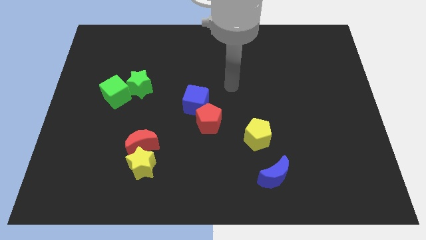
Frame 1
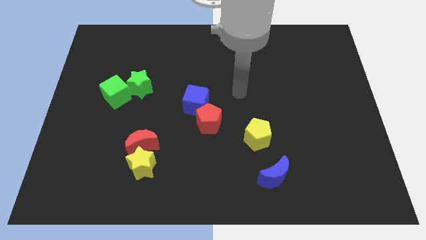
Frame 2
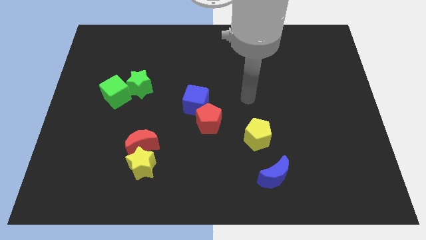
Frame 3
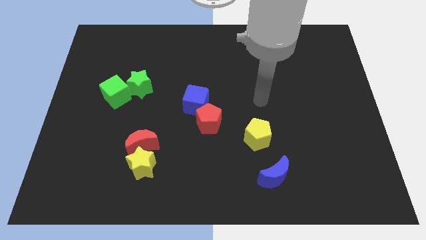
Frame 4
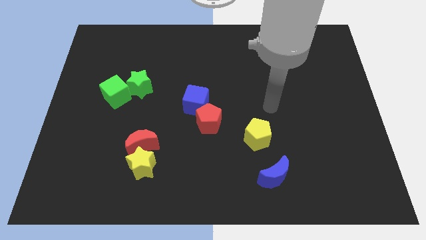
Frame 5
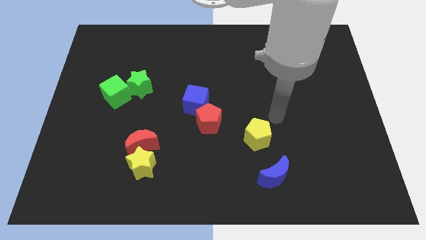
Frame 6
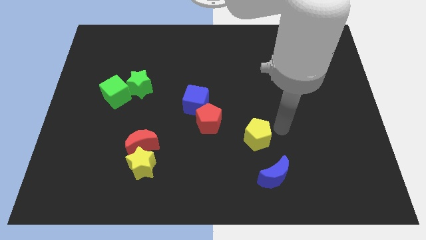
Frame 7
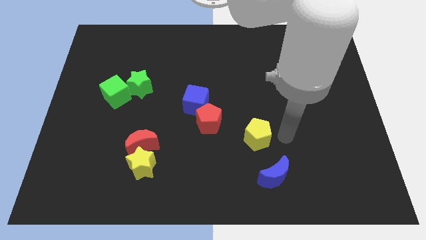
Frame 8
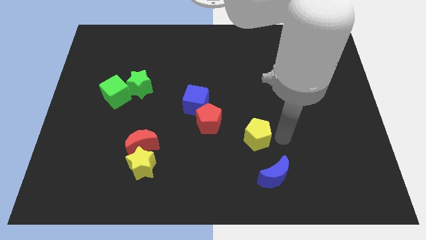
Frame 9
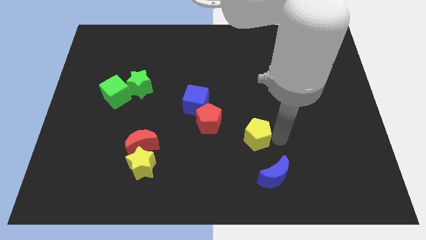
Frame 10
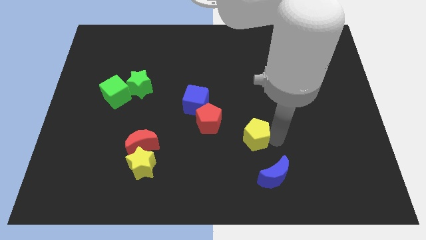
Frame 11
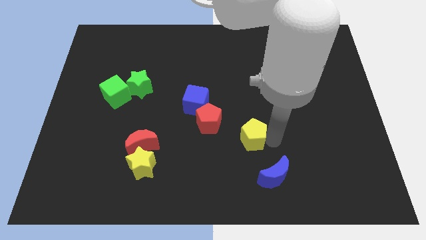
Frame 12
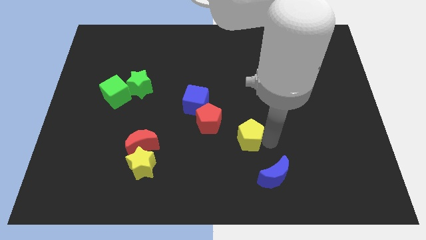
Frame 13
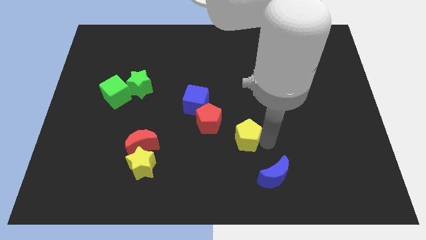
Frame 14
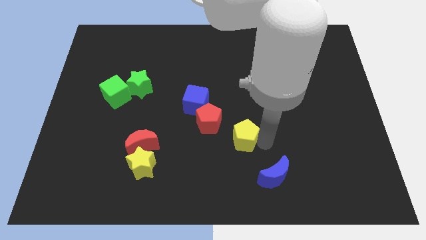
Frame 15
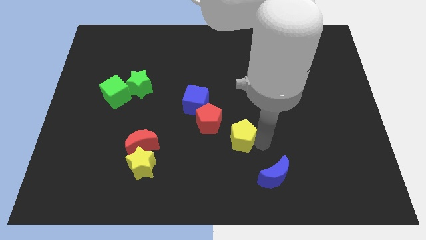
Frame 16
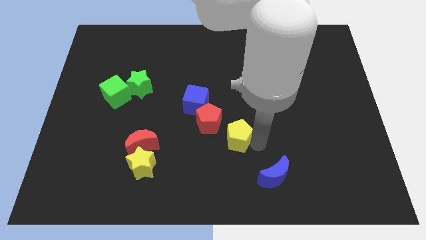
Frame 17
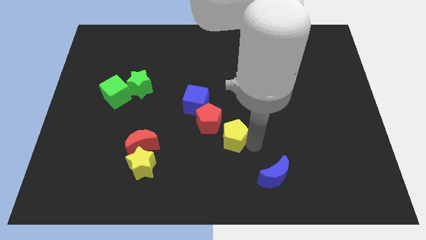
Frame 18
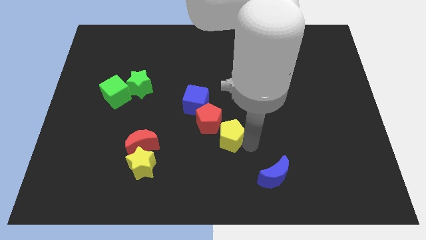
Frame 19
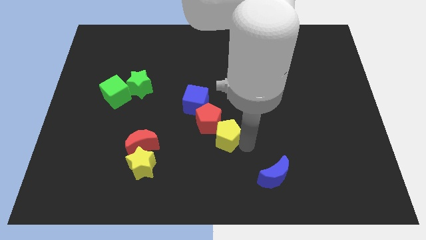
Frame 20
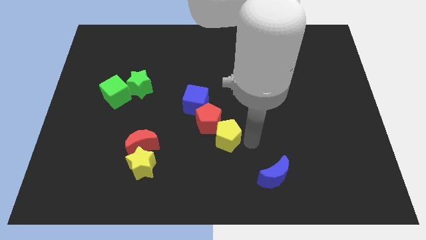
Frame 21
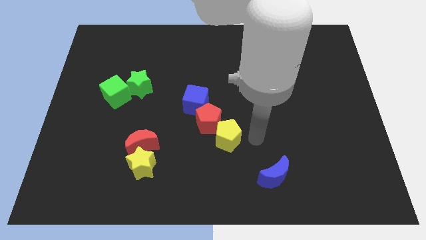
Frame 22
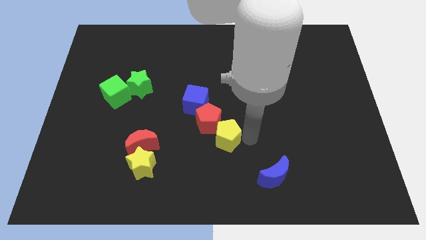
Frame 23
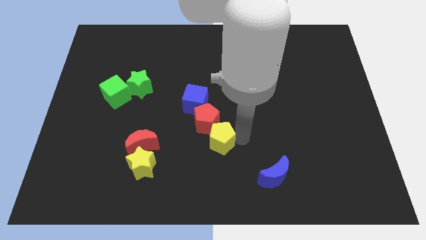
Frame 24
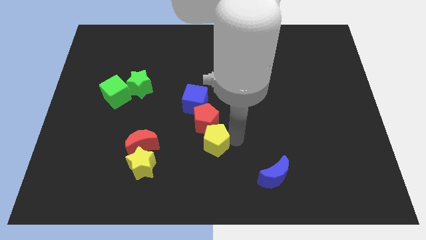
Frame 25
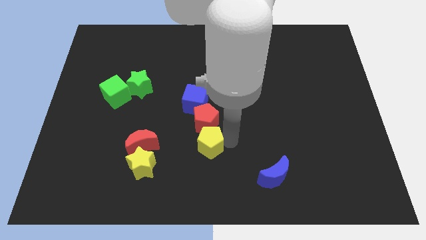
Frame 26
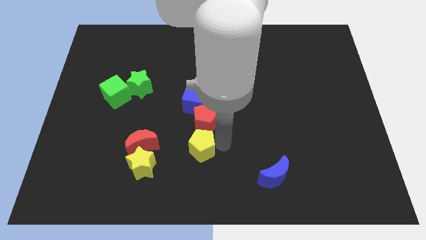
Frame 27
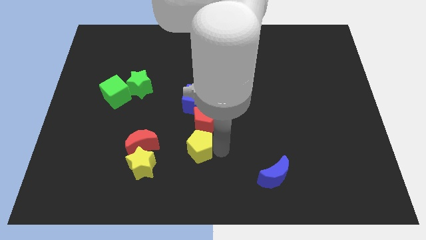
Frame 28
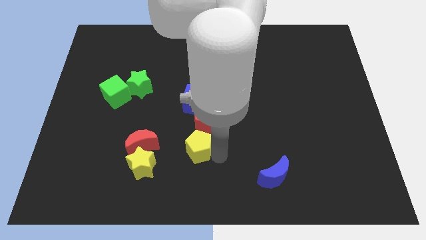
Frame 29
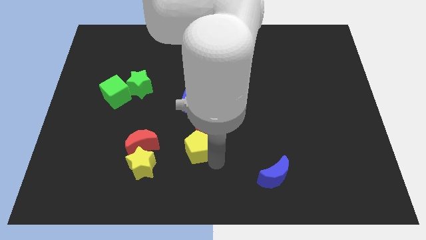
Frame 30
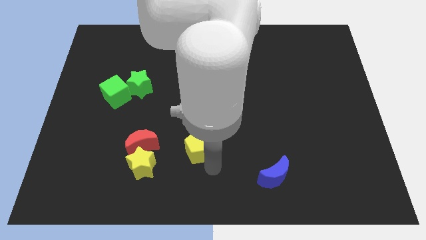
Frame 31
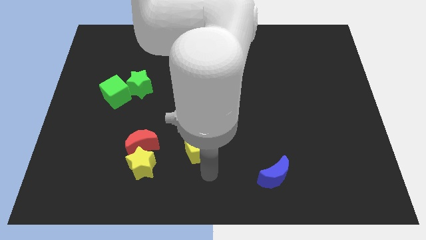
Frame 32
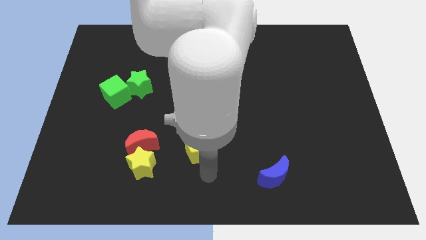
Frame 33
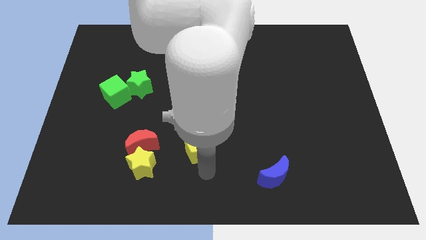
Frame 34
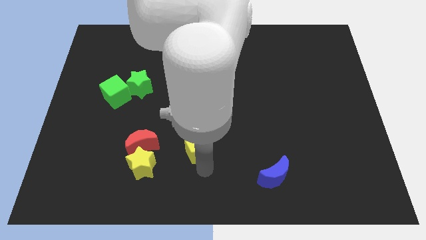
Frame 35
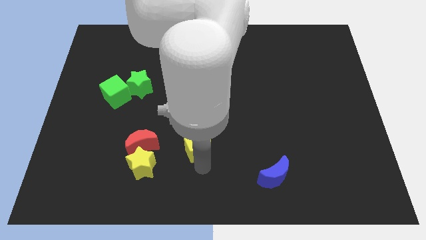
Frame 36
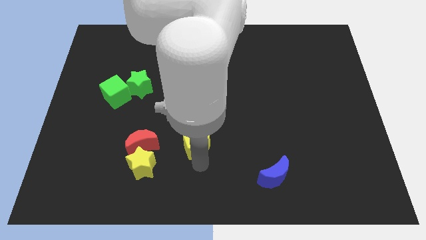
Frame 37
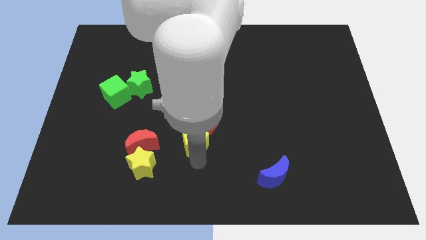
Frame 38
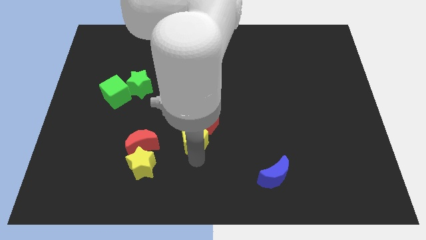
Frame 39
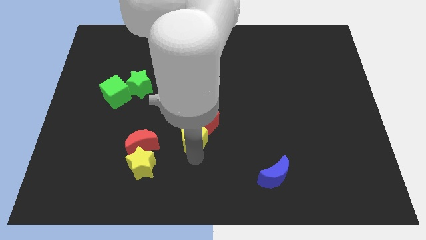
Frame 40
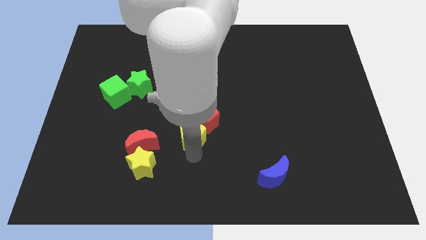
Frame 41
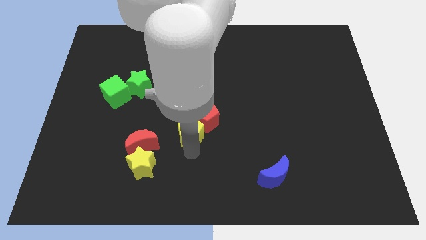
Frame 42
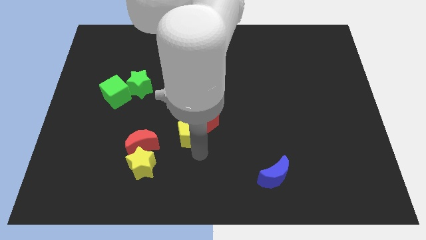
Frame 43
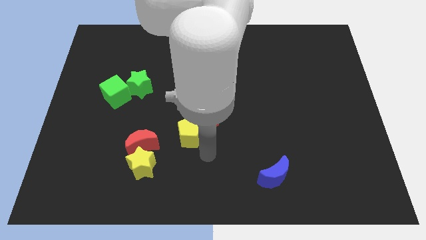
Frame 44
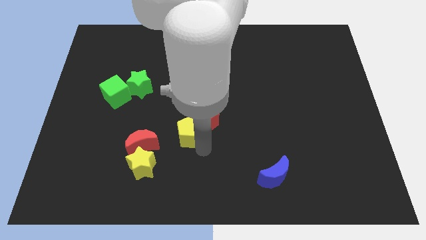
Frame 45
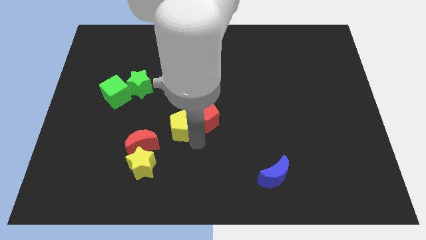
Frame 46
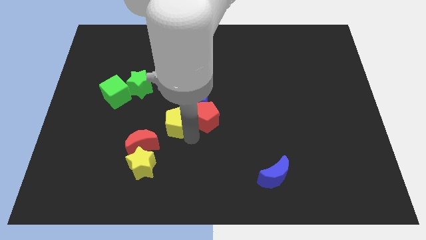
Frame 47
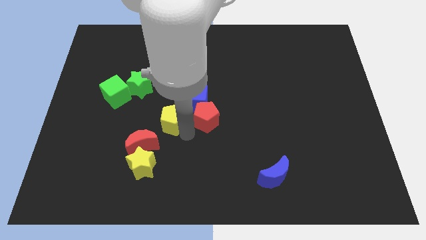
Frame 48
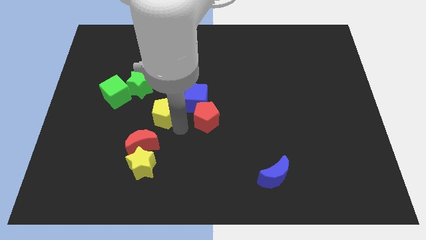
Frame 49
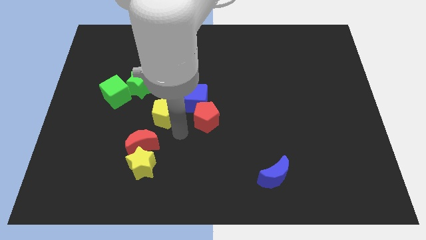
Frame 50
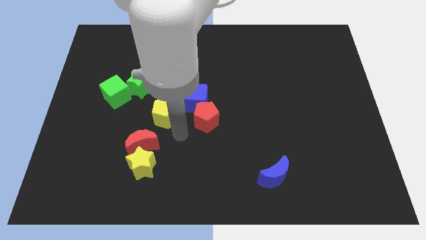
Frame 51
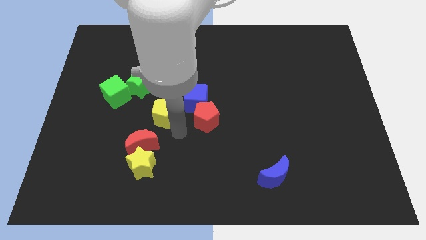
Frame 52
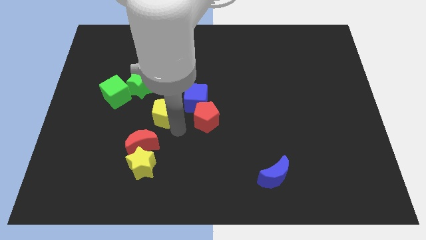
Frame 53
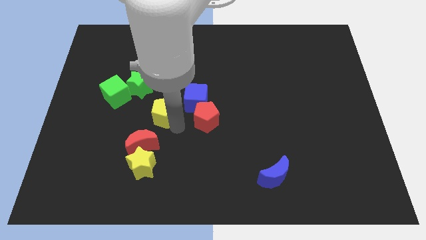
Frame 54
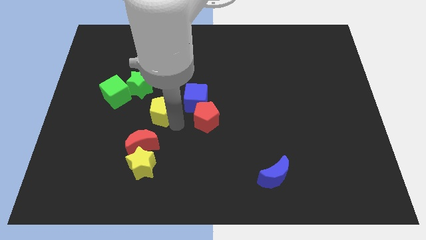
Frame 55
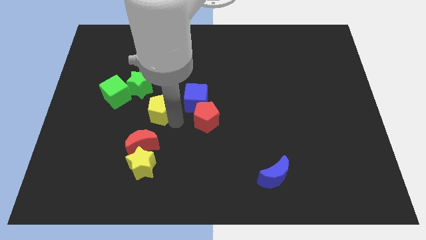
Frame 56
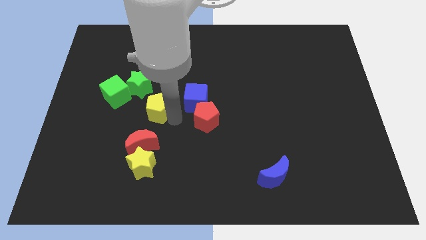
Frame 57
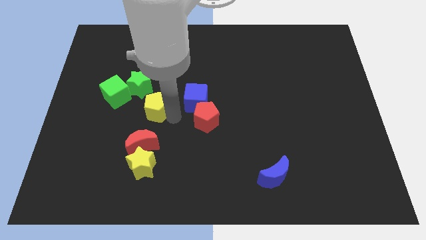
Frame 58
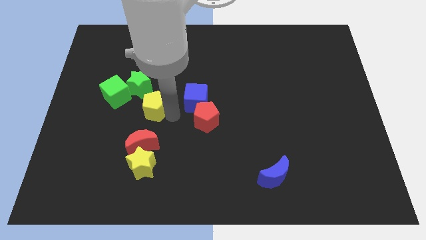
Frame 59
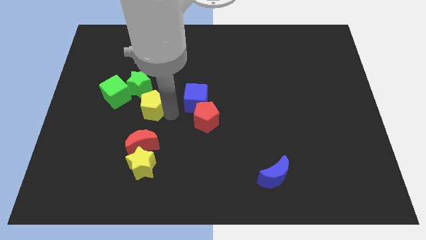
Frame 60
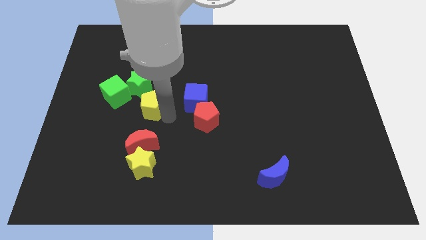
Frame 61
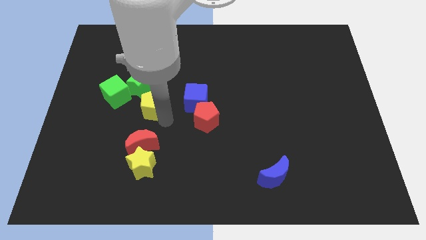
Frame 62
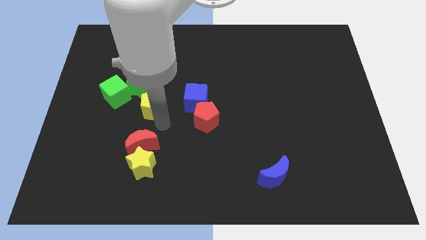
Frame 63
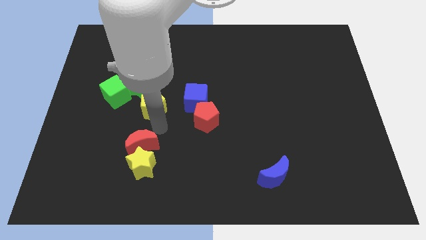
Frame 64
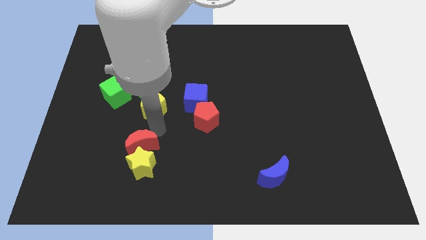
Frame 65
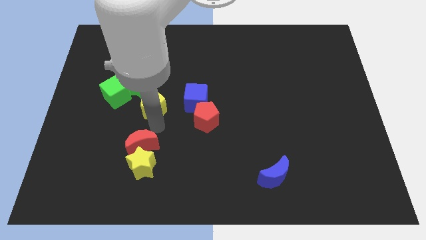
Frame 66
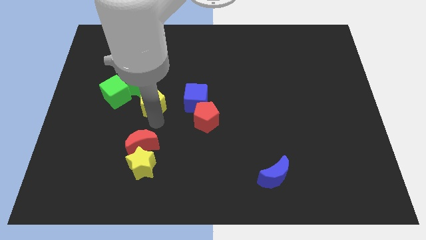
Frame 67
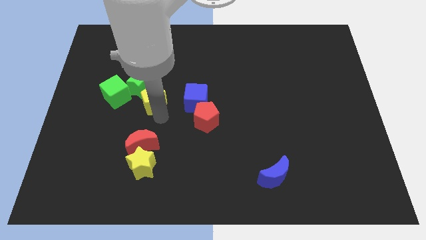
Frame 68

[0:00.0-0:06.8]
push the yellow pentagon close to the green star

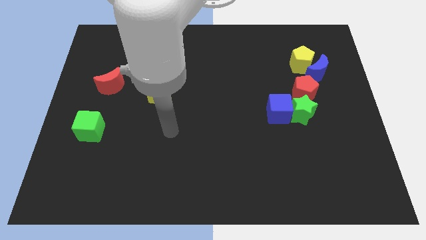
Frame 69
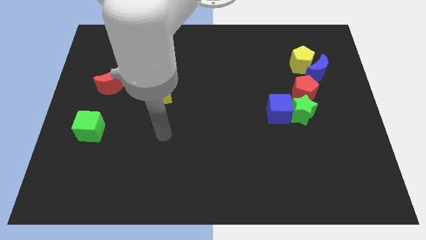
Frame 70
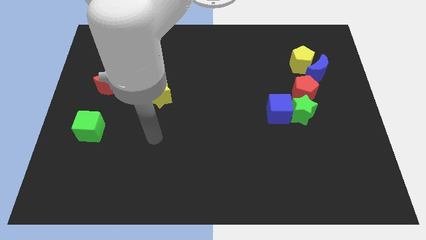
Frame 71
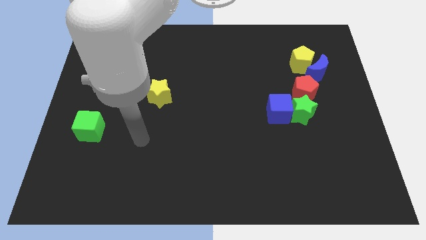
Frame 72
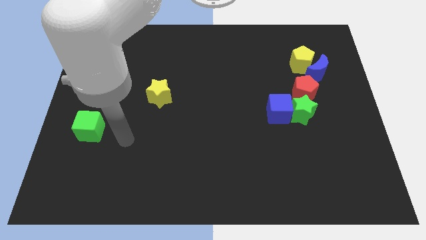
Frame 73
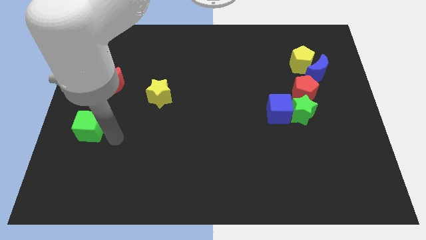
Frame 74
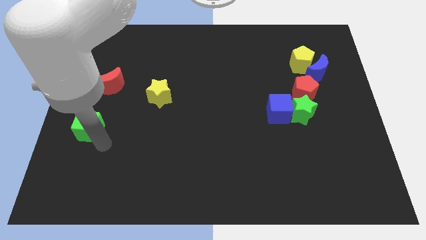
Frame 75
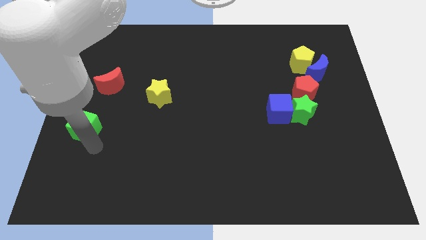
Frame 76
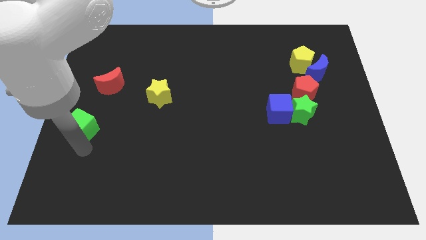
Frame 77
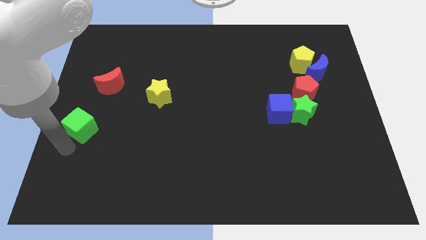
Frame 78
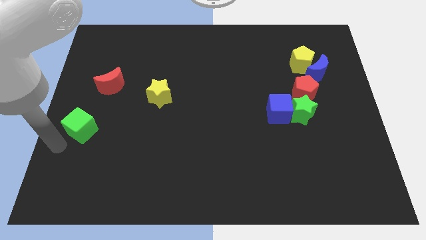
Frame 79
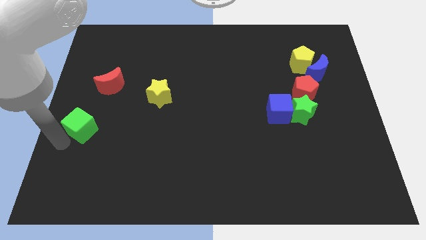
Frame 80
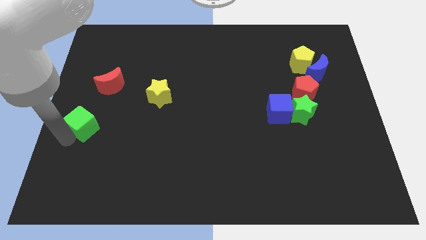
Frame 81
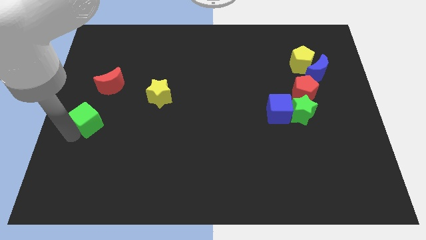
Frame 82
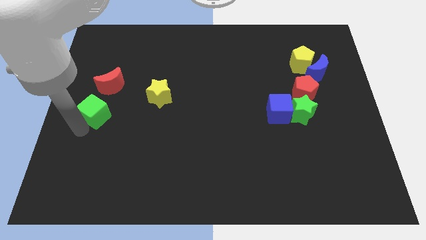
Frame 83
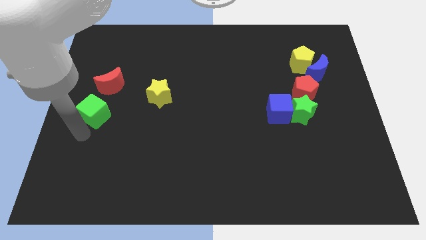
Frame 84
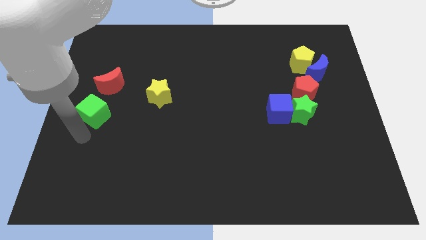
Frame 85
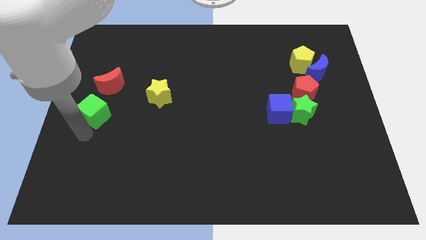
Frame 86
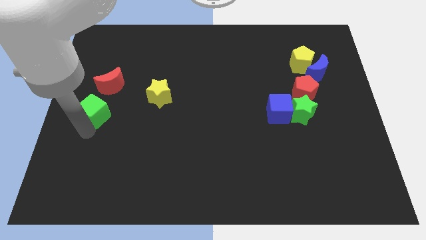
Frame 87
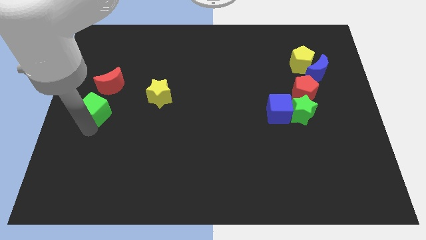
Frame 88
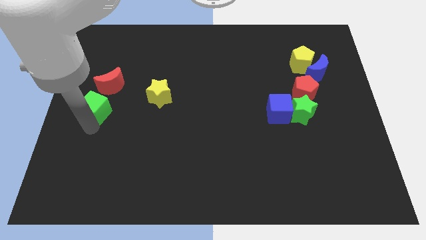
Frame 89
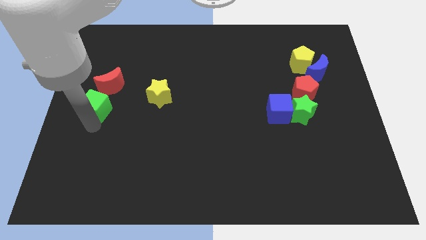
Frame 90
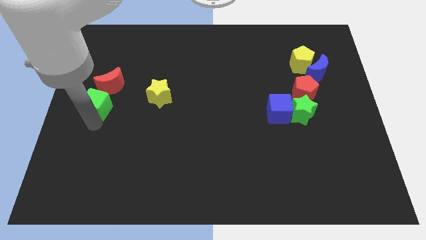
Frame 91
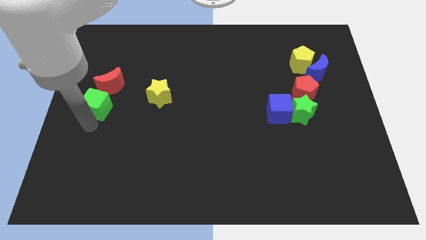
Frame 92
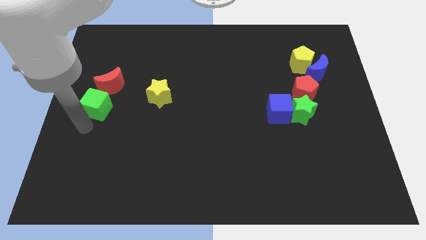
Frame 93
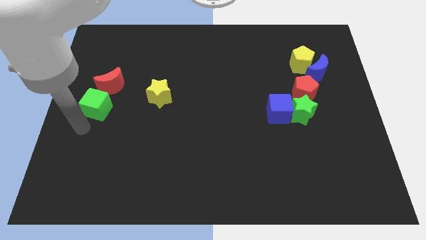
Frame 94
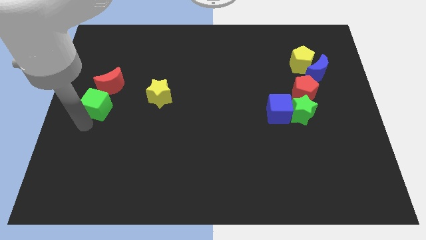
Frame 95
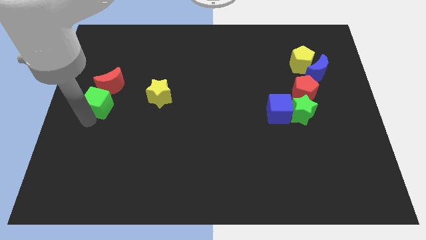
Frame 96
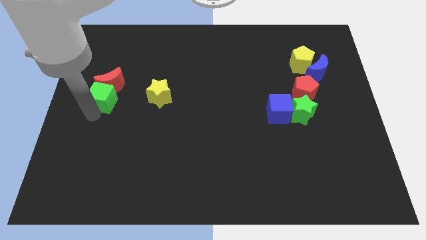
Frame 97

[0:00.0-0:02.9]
push the green cube next to the red moon
